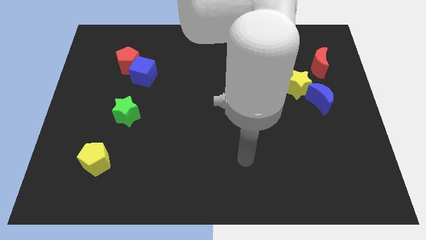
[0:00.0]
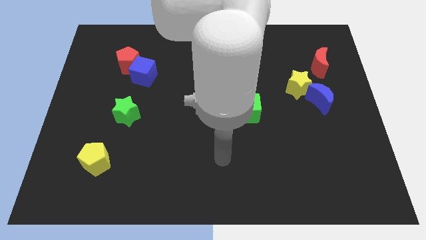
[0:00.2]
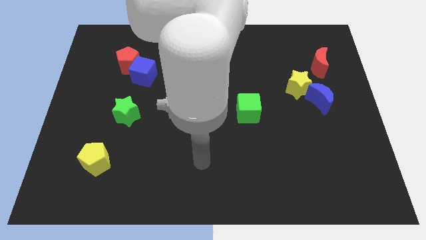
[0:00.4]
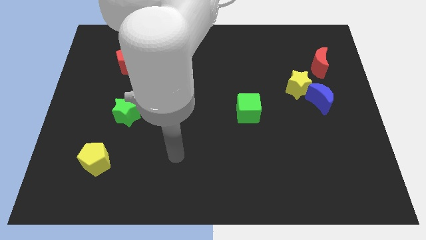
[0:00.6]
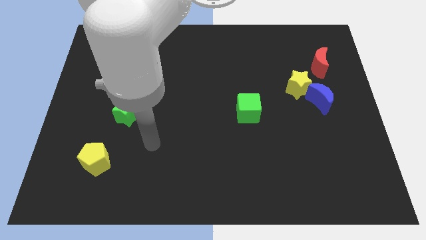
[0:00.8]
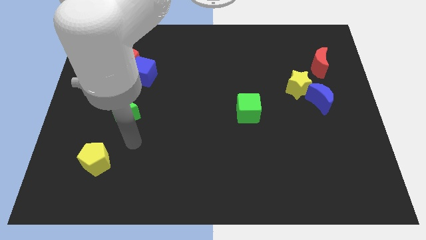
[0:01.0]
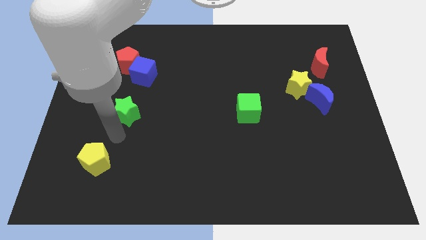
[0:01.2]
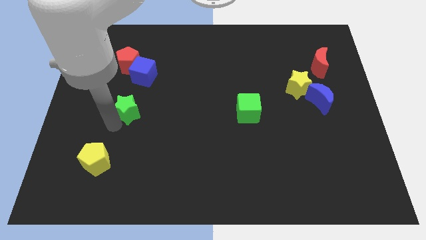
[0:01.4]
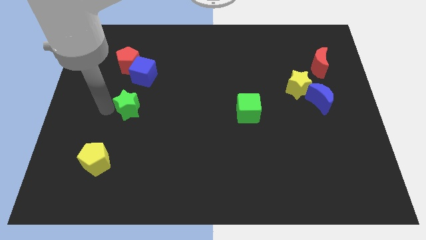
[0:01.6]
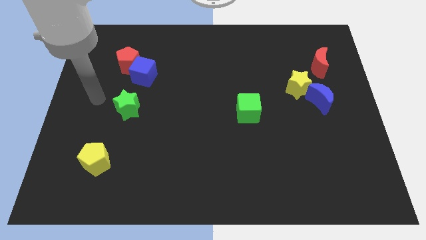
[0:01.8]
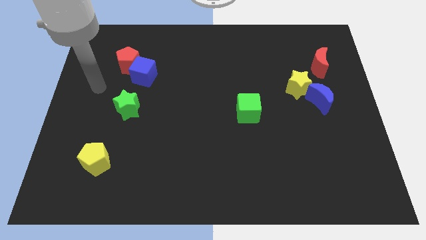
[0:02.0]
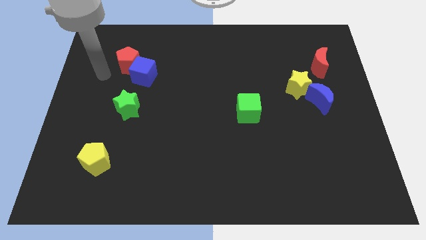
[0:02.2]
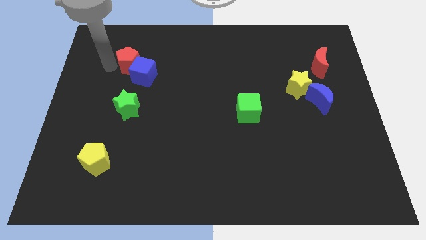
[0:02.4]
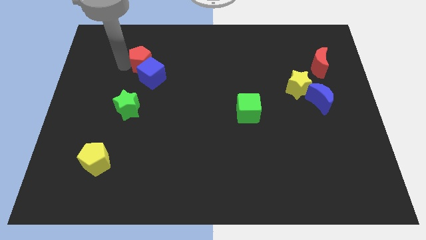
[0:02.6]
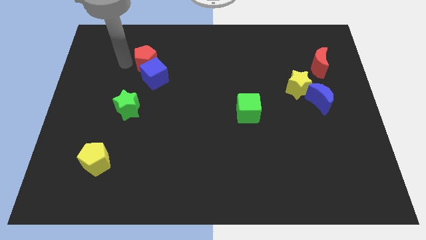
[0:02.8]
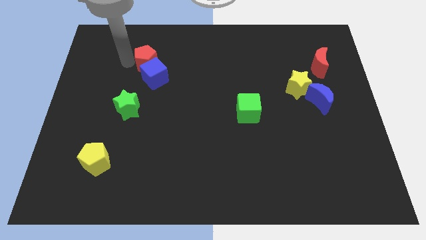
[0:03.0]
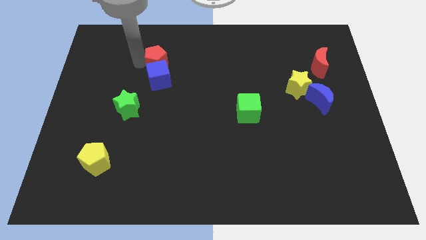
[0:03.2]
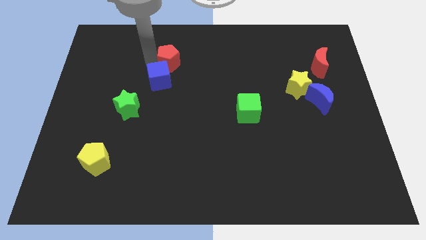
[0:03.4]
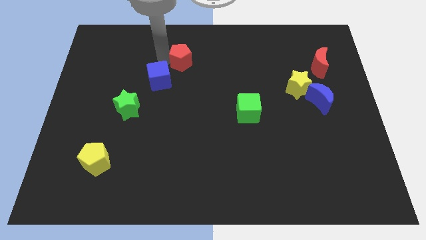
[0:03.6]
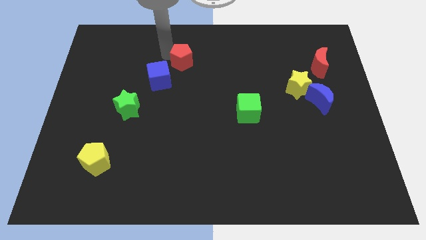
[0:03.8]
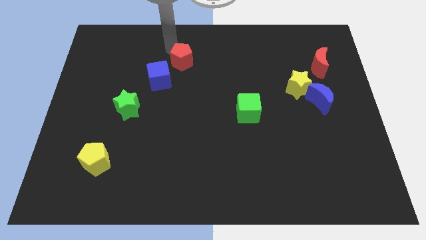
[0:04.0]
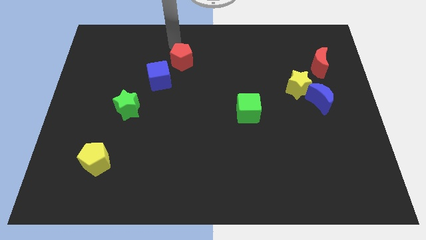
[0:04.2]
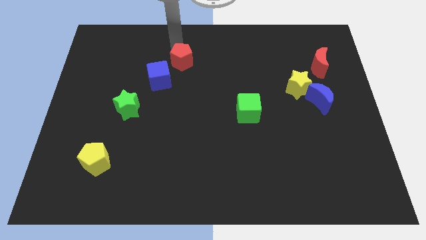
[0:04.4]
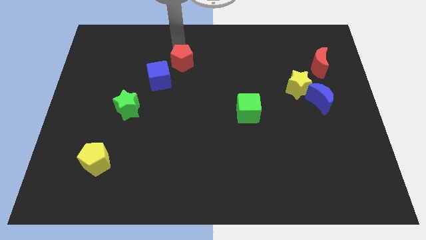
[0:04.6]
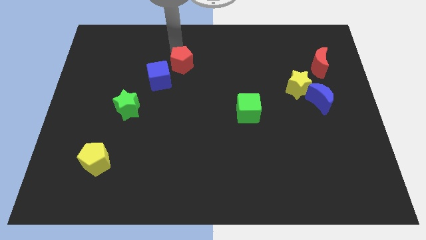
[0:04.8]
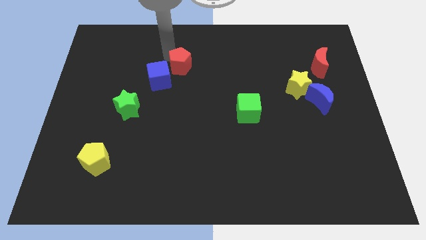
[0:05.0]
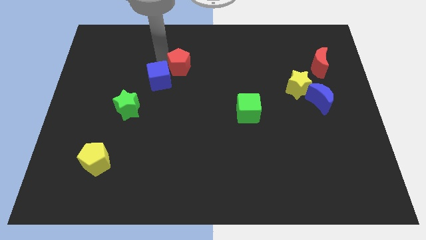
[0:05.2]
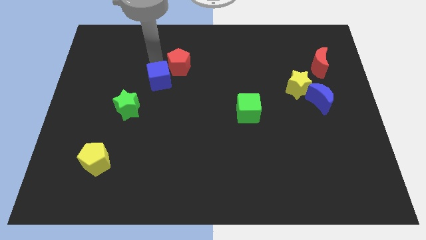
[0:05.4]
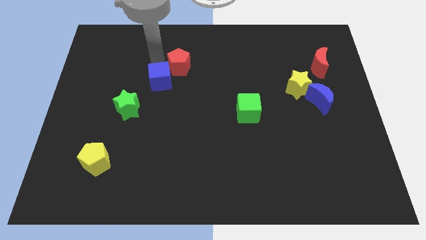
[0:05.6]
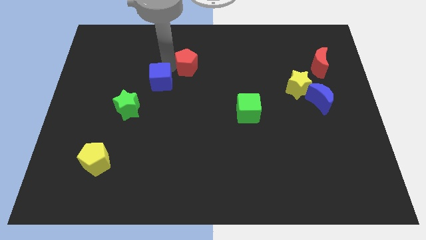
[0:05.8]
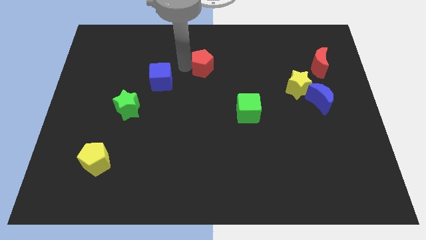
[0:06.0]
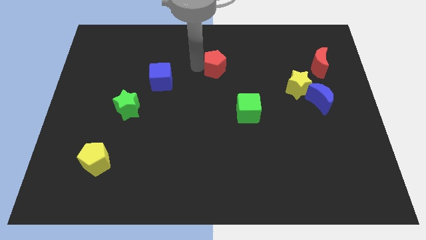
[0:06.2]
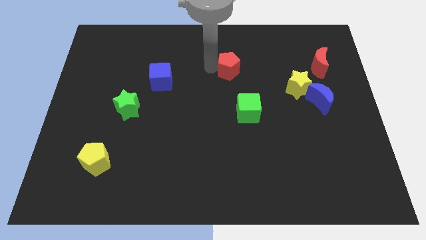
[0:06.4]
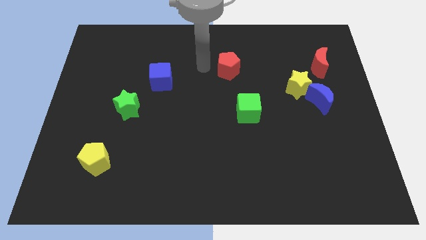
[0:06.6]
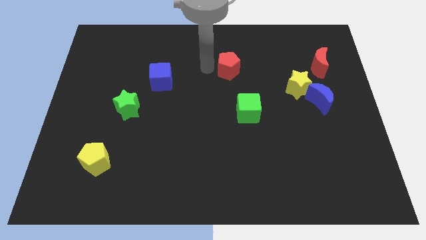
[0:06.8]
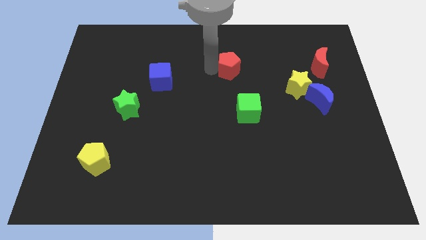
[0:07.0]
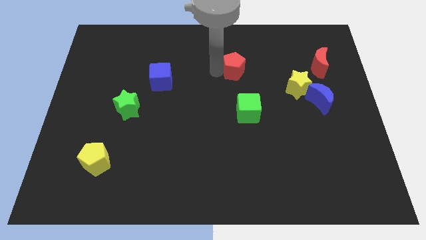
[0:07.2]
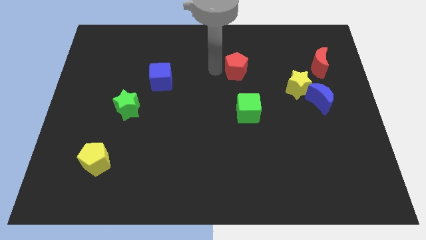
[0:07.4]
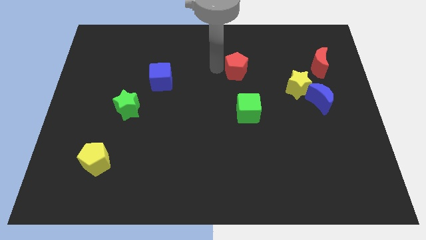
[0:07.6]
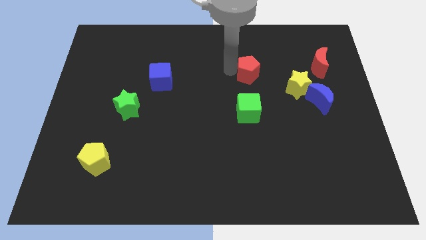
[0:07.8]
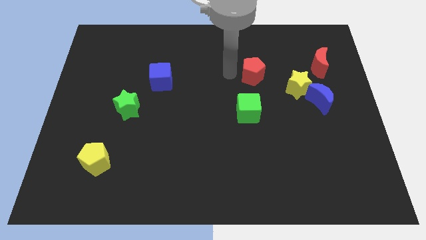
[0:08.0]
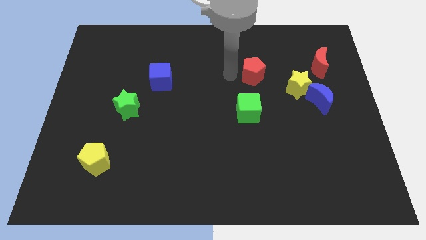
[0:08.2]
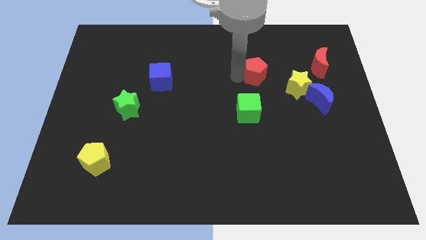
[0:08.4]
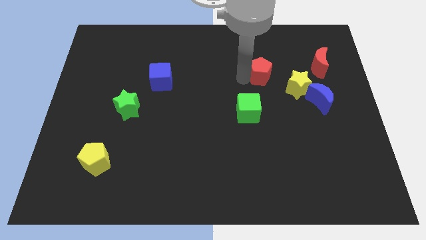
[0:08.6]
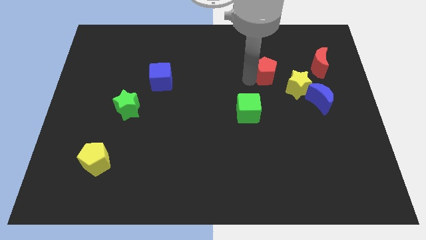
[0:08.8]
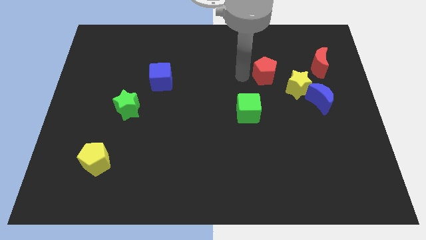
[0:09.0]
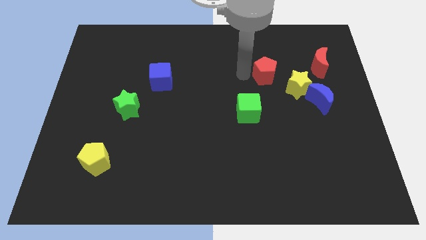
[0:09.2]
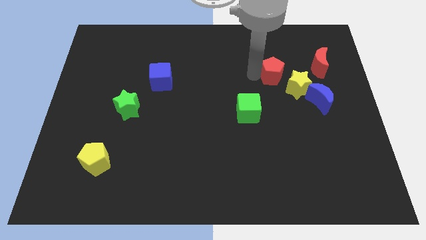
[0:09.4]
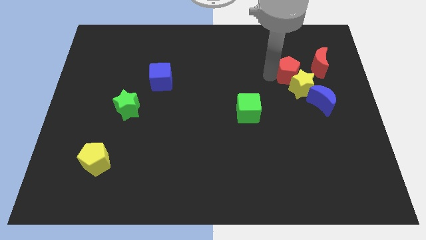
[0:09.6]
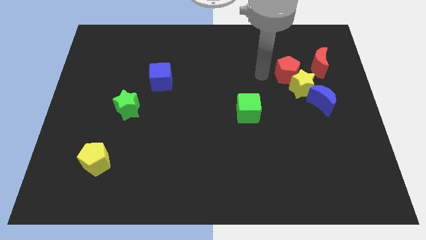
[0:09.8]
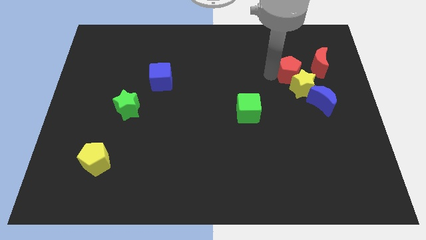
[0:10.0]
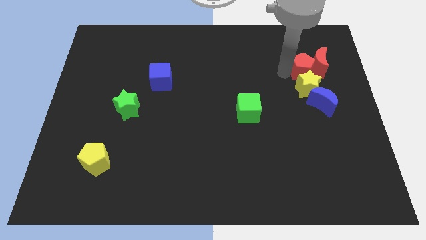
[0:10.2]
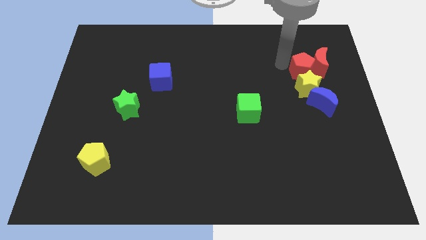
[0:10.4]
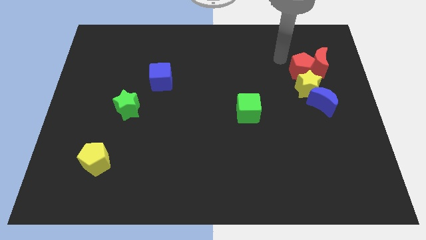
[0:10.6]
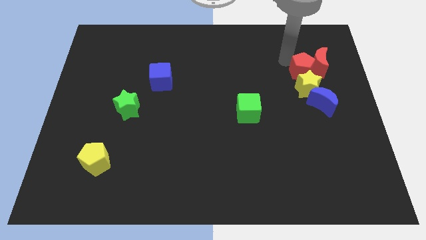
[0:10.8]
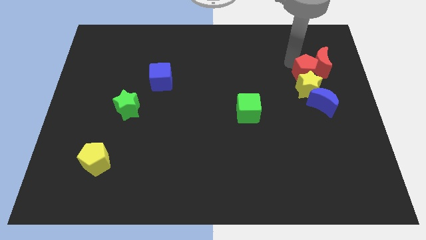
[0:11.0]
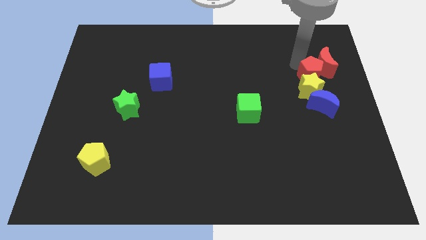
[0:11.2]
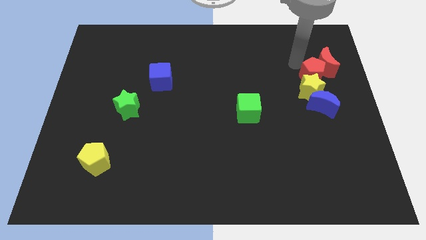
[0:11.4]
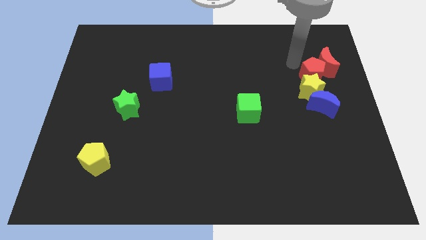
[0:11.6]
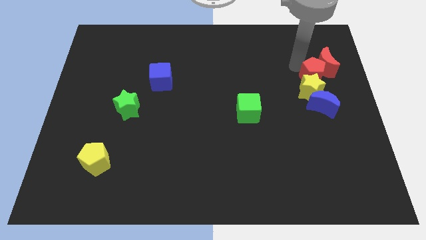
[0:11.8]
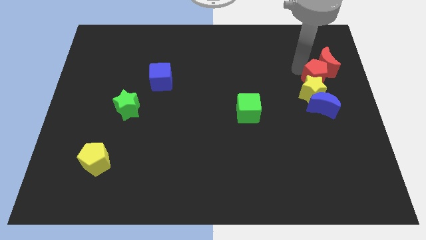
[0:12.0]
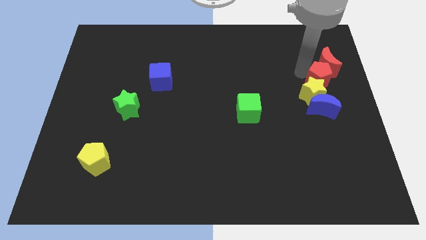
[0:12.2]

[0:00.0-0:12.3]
move the red pentagon to the right side

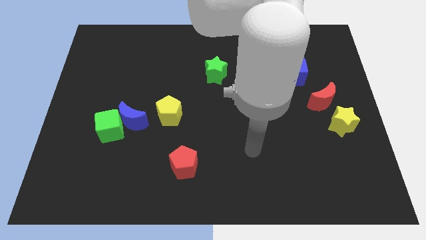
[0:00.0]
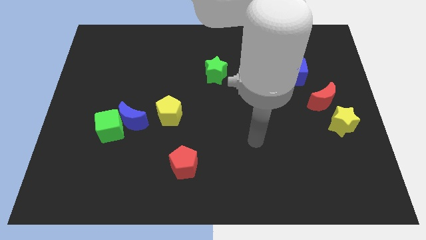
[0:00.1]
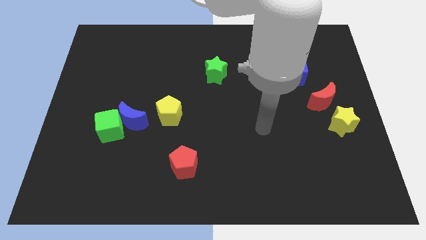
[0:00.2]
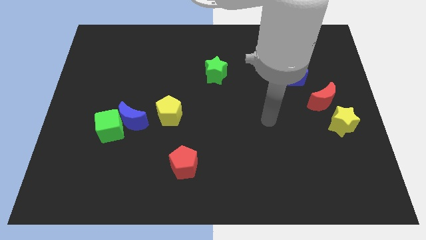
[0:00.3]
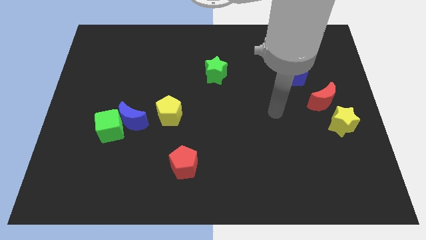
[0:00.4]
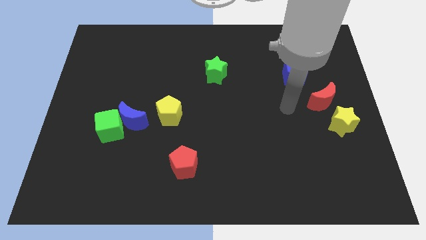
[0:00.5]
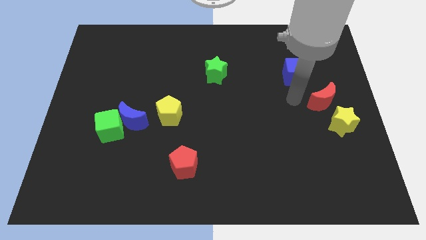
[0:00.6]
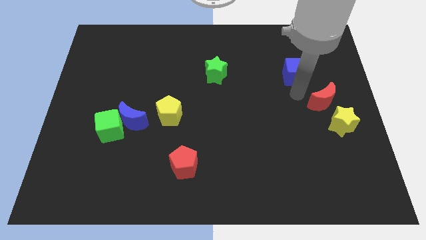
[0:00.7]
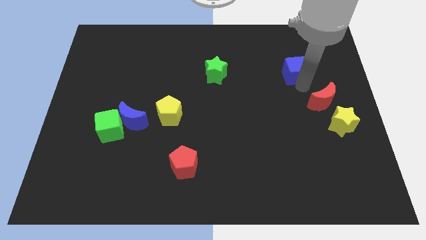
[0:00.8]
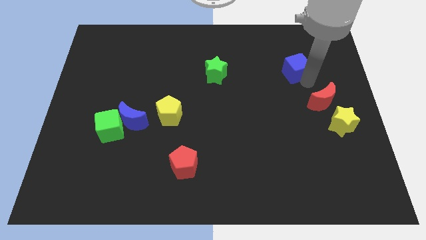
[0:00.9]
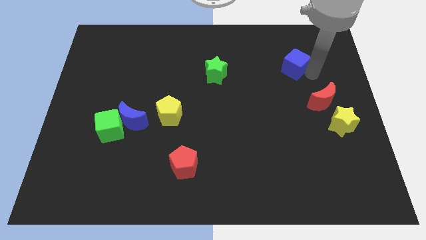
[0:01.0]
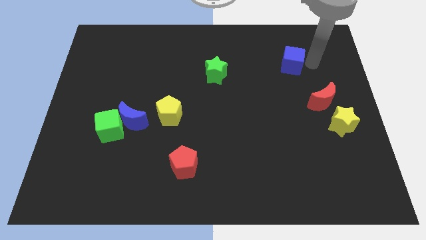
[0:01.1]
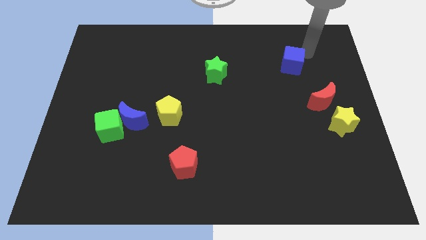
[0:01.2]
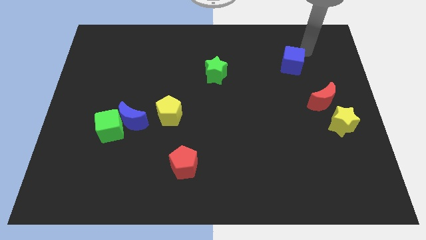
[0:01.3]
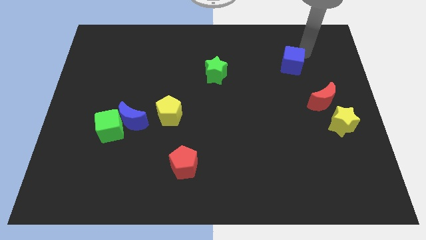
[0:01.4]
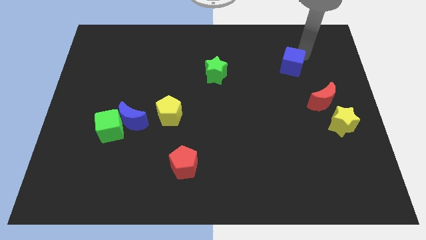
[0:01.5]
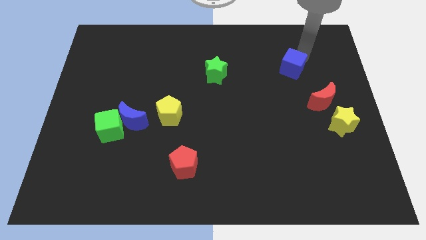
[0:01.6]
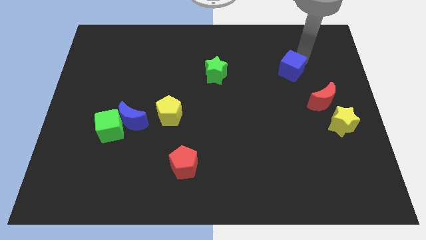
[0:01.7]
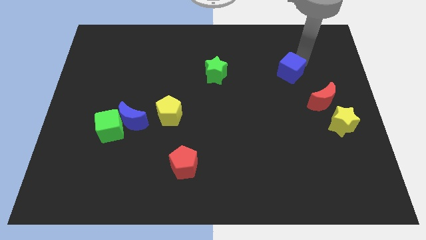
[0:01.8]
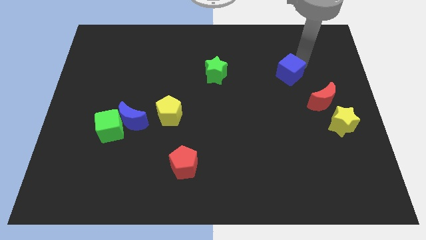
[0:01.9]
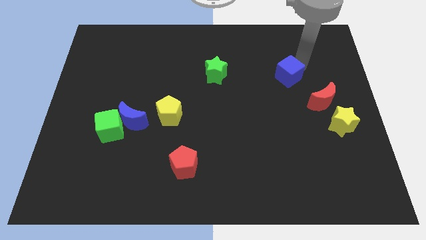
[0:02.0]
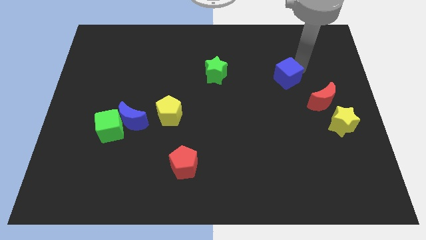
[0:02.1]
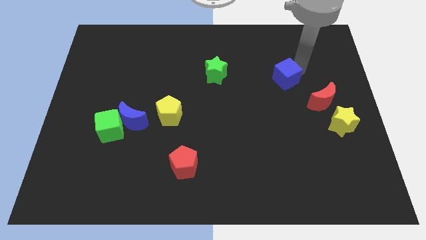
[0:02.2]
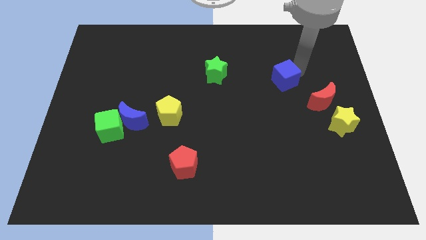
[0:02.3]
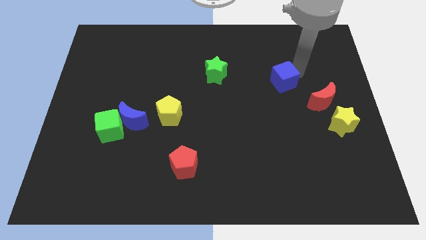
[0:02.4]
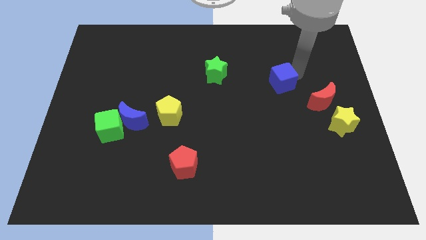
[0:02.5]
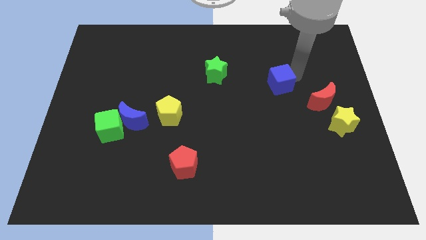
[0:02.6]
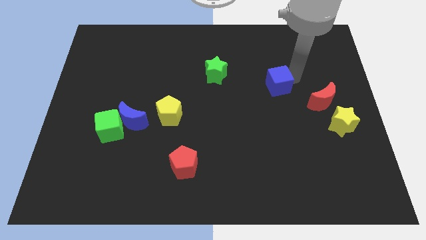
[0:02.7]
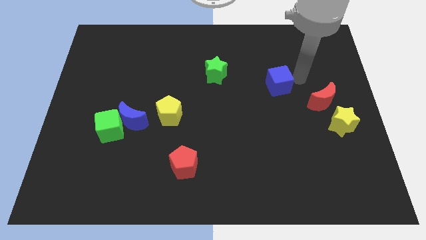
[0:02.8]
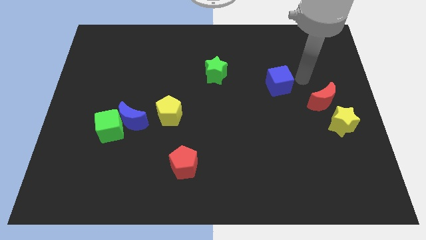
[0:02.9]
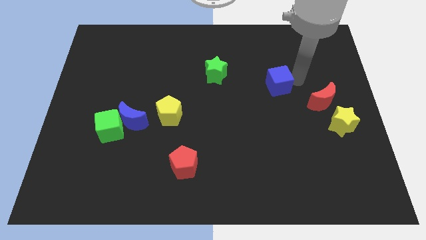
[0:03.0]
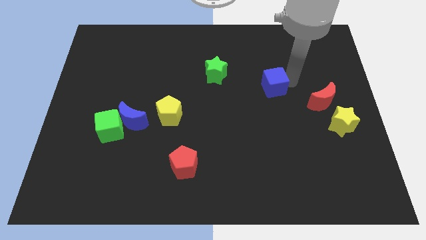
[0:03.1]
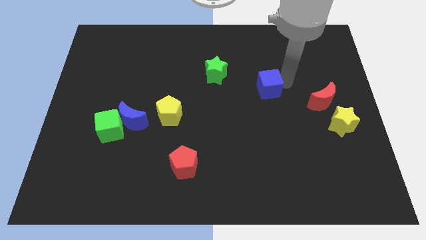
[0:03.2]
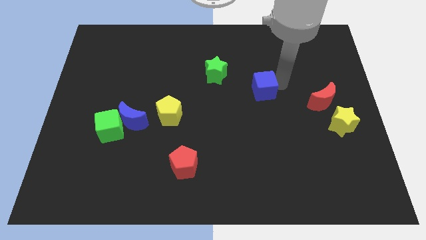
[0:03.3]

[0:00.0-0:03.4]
put the blue cube to the center of the board
